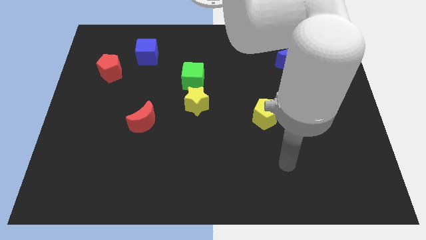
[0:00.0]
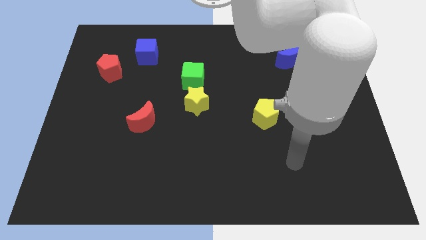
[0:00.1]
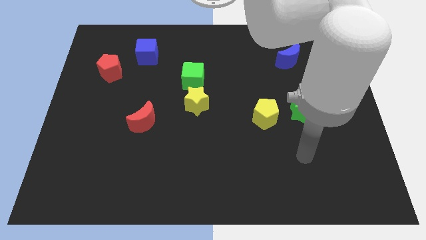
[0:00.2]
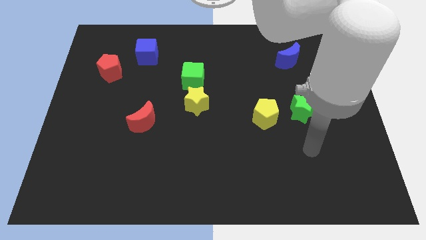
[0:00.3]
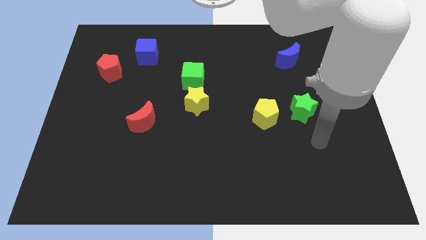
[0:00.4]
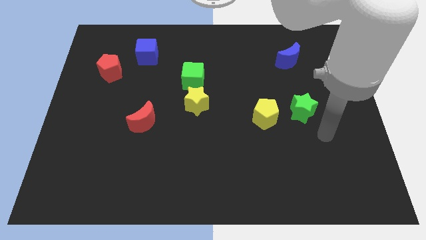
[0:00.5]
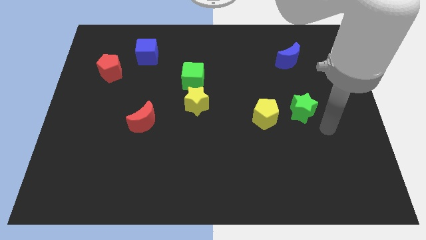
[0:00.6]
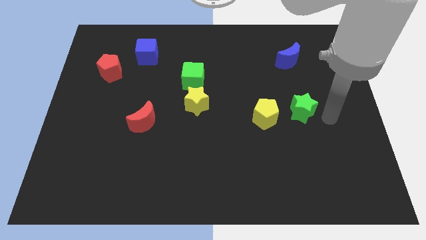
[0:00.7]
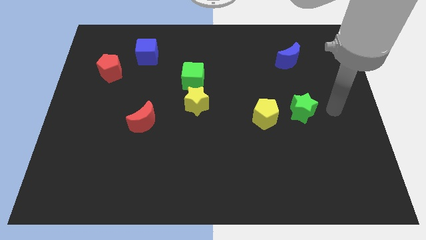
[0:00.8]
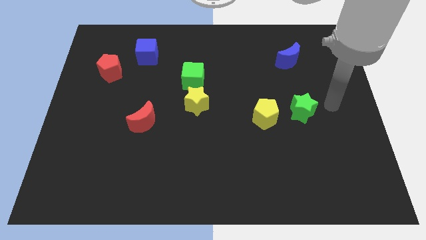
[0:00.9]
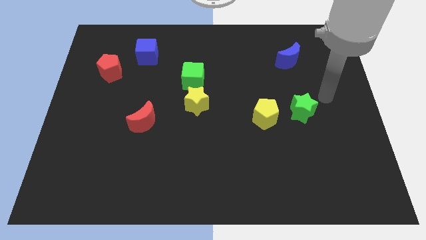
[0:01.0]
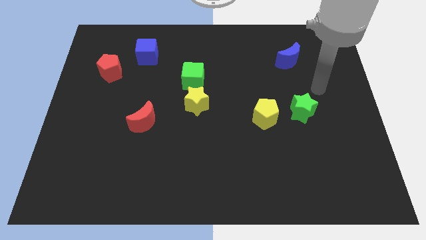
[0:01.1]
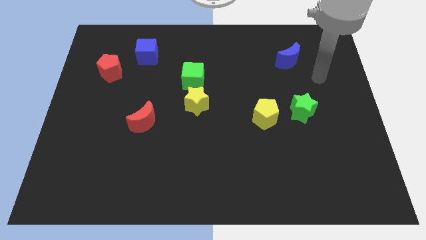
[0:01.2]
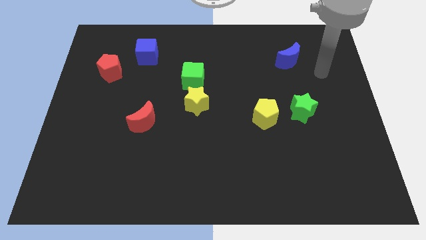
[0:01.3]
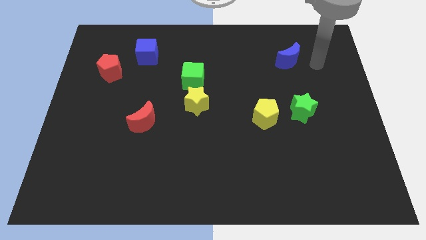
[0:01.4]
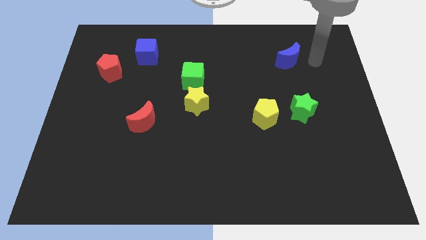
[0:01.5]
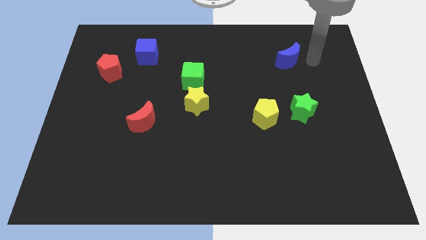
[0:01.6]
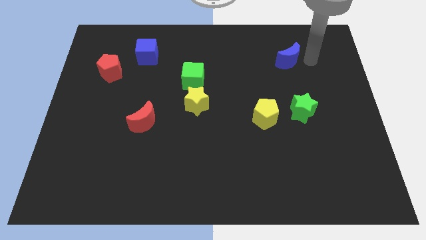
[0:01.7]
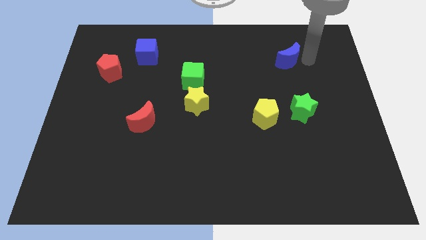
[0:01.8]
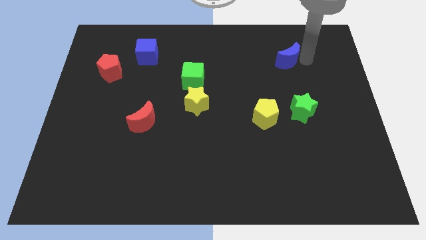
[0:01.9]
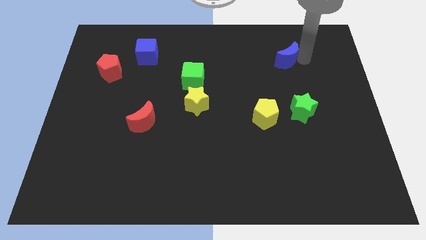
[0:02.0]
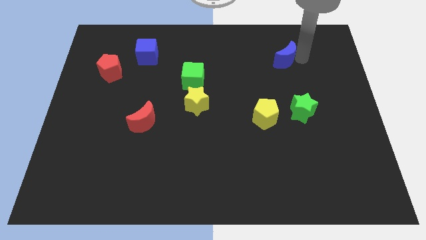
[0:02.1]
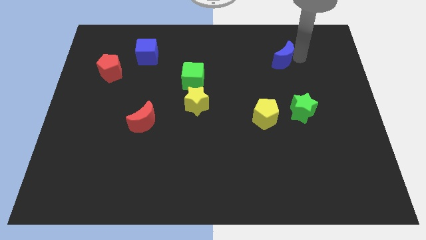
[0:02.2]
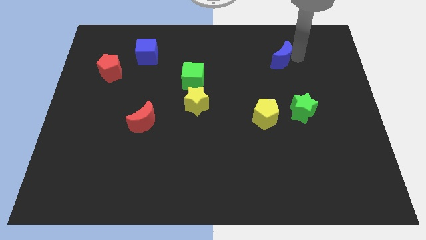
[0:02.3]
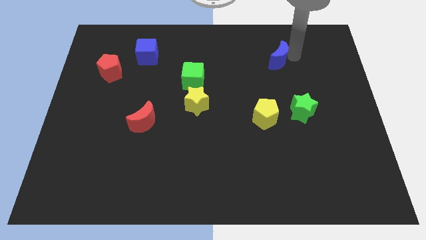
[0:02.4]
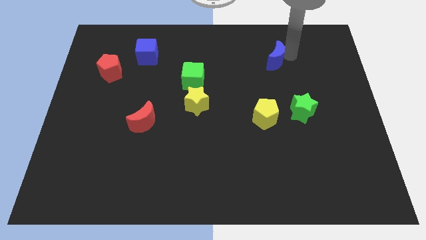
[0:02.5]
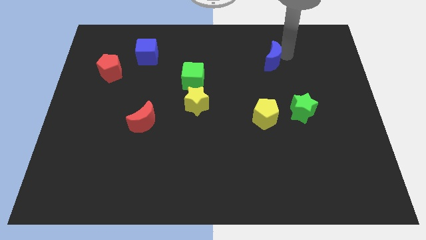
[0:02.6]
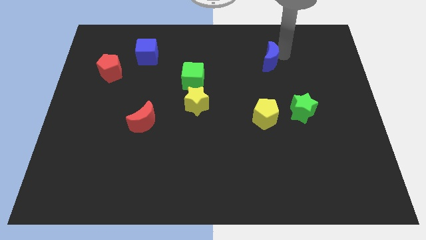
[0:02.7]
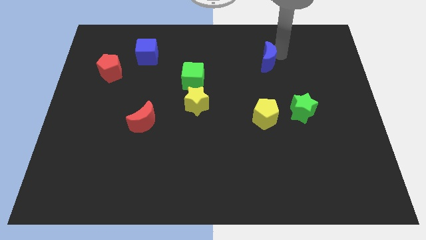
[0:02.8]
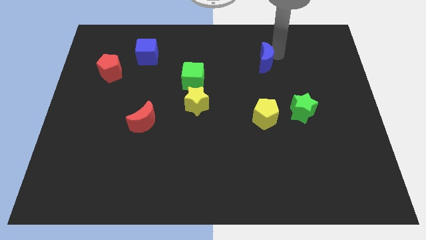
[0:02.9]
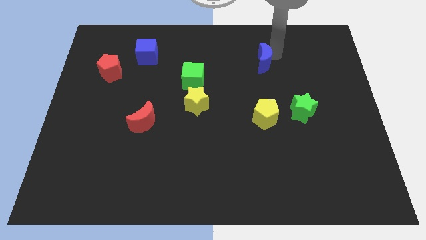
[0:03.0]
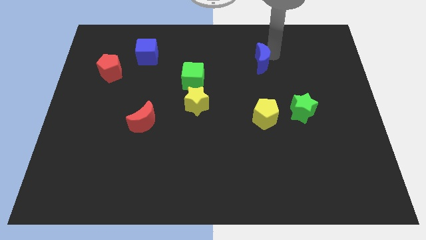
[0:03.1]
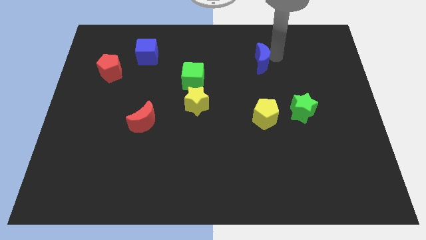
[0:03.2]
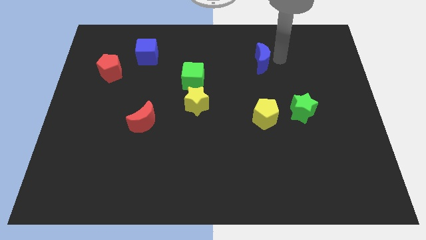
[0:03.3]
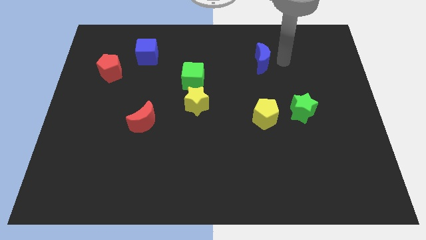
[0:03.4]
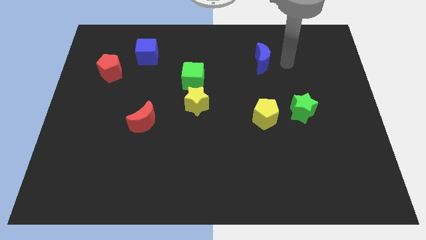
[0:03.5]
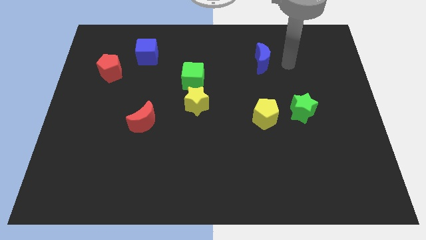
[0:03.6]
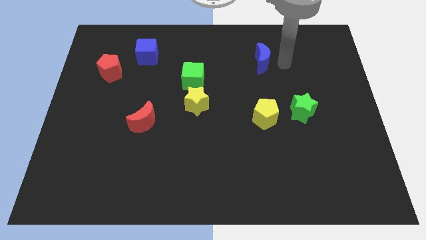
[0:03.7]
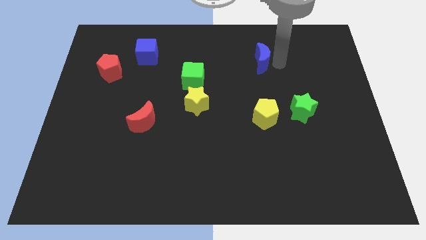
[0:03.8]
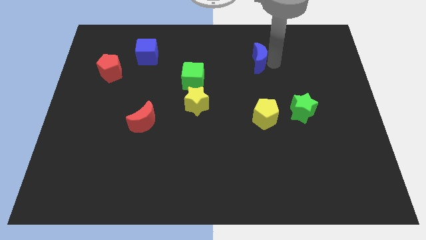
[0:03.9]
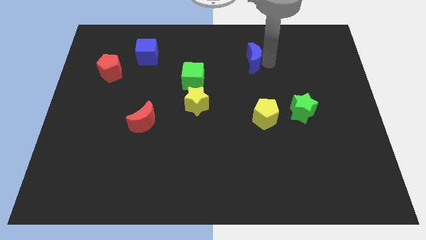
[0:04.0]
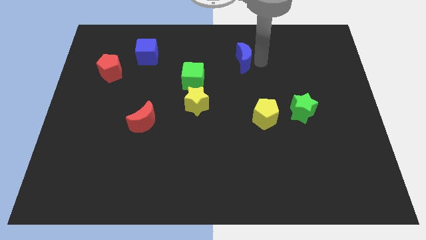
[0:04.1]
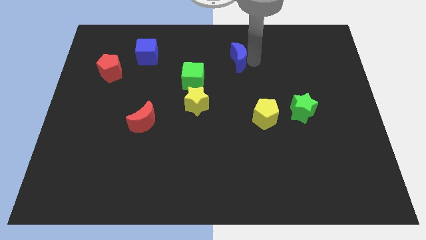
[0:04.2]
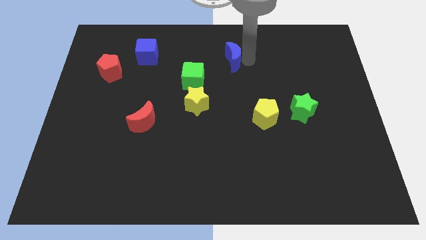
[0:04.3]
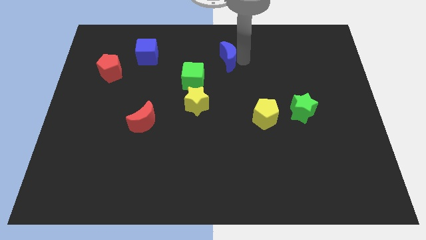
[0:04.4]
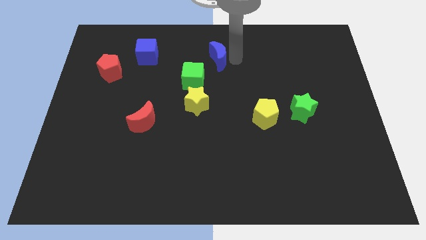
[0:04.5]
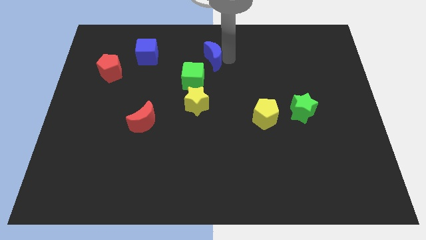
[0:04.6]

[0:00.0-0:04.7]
slide the blue moon left

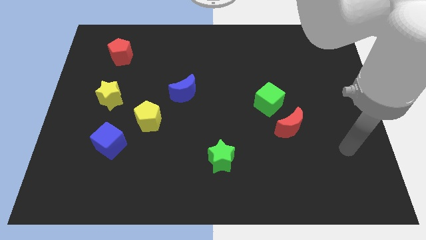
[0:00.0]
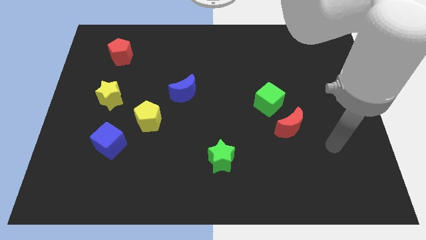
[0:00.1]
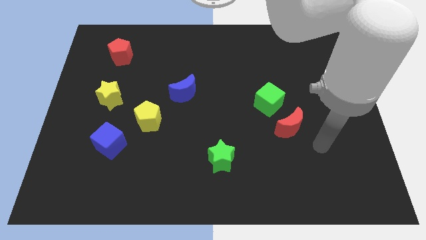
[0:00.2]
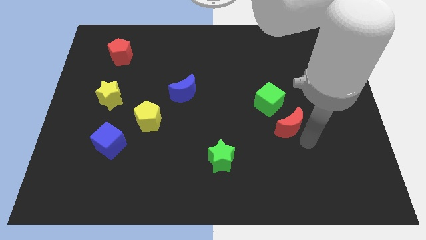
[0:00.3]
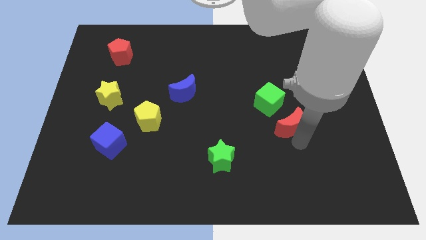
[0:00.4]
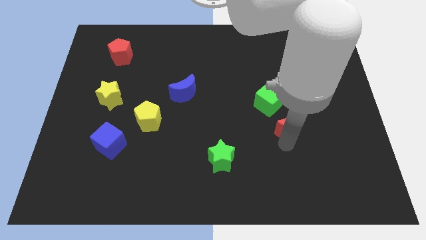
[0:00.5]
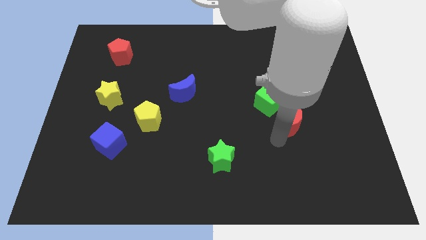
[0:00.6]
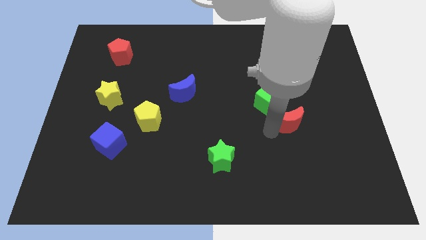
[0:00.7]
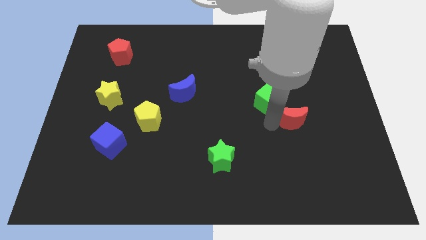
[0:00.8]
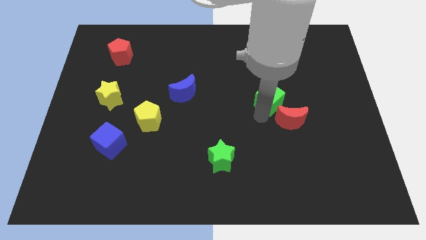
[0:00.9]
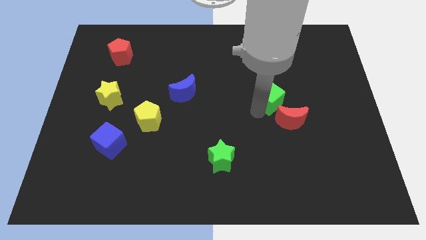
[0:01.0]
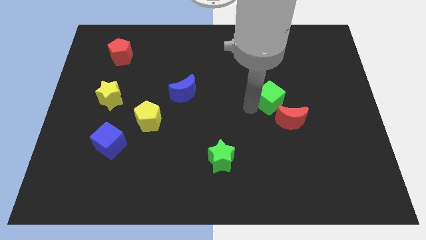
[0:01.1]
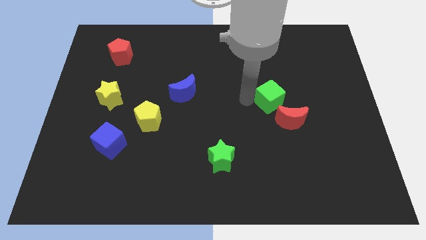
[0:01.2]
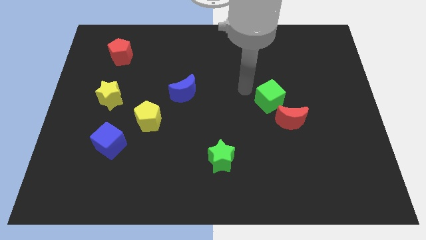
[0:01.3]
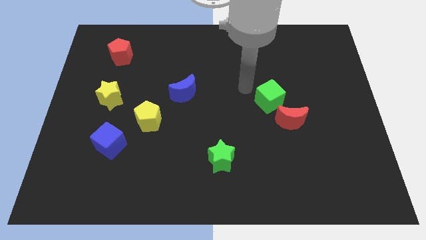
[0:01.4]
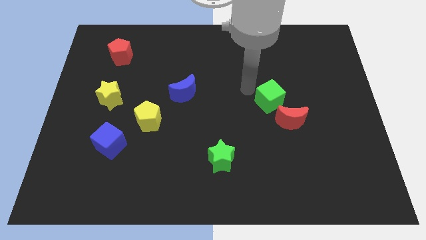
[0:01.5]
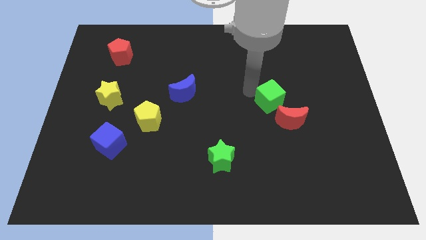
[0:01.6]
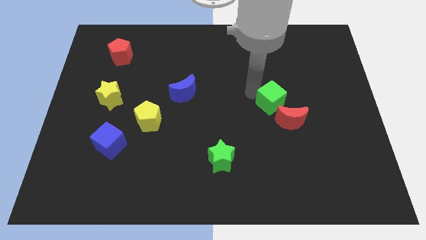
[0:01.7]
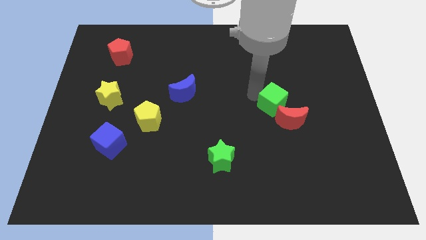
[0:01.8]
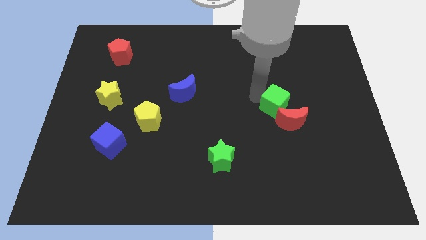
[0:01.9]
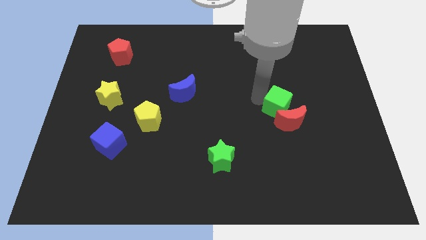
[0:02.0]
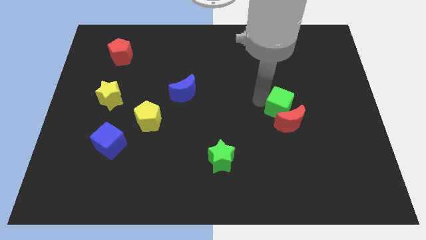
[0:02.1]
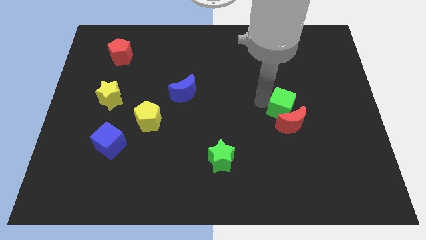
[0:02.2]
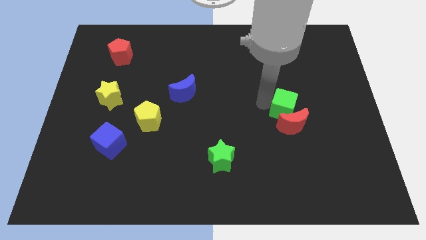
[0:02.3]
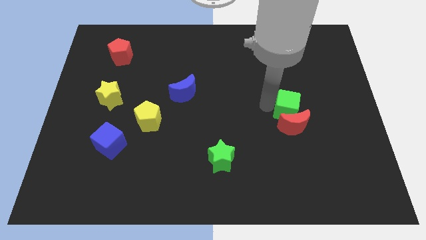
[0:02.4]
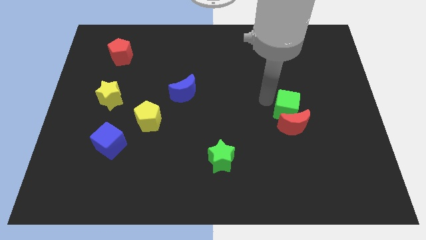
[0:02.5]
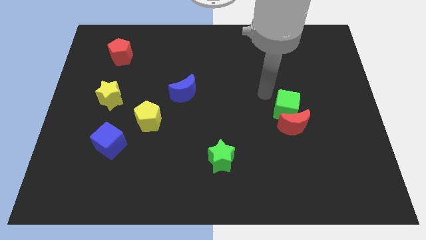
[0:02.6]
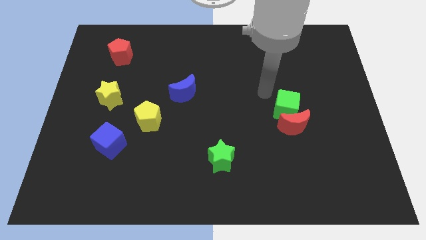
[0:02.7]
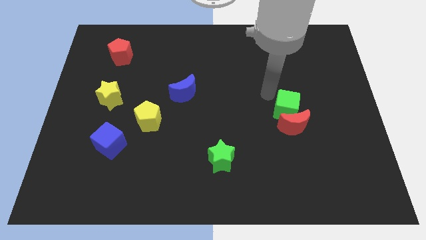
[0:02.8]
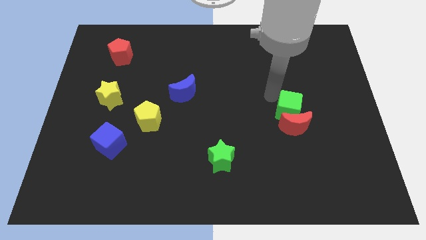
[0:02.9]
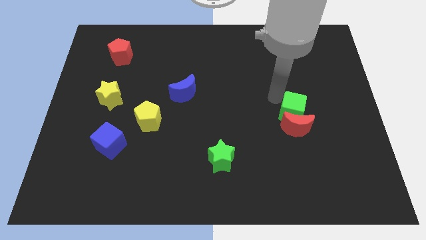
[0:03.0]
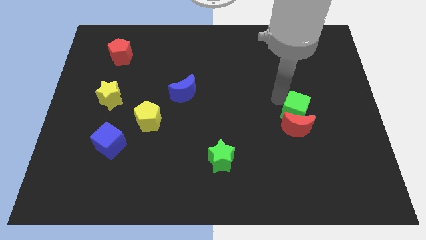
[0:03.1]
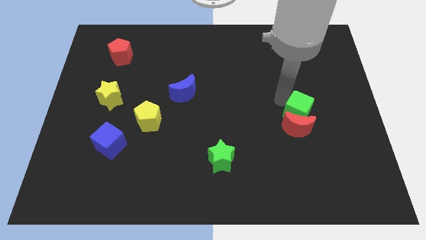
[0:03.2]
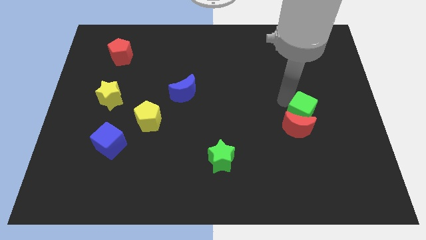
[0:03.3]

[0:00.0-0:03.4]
move the green cube diagonally down and right somewhat

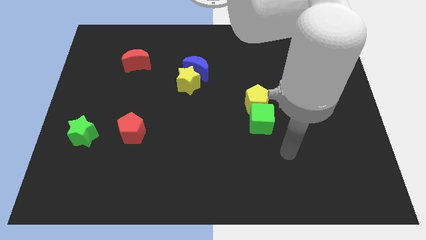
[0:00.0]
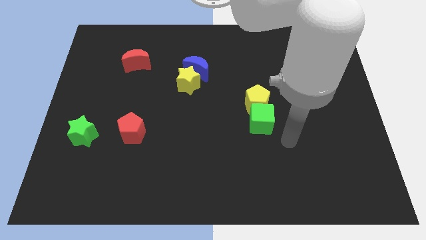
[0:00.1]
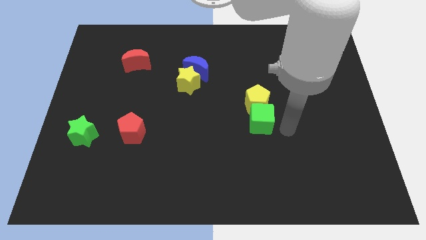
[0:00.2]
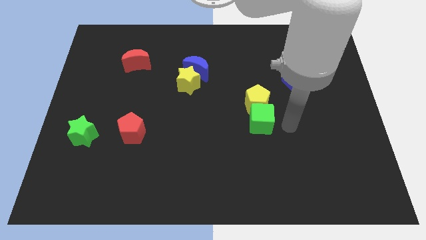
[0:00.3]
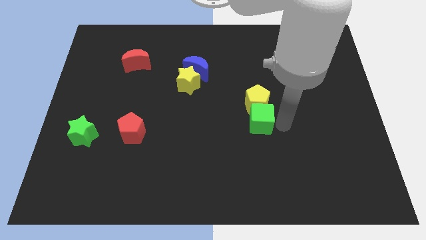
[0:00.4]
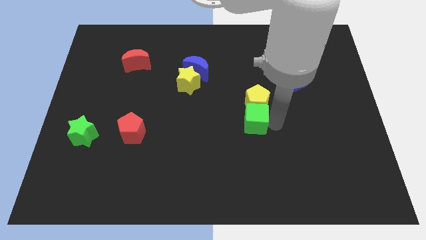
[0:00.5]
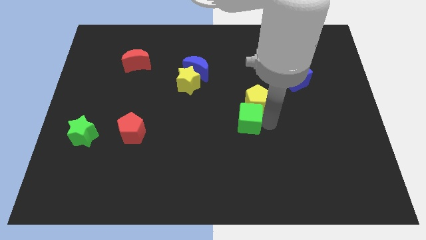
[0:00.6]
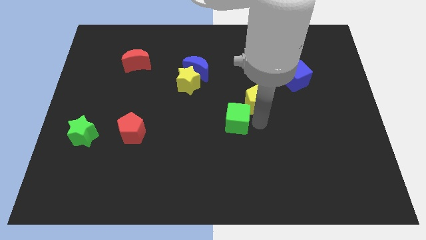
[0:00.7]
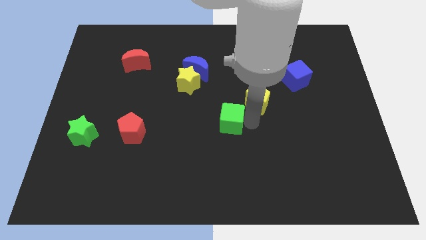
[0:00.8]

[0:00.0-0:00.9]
slightly move the green cube to the left
